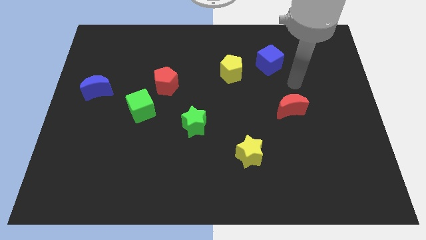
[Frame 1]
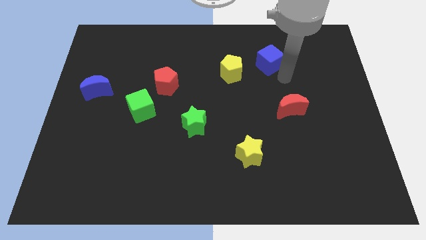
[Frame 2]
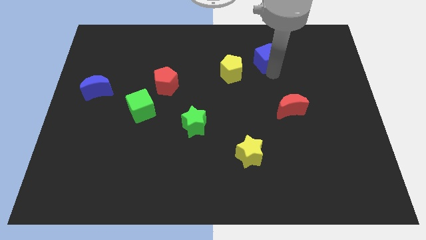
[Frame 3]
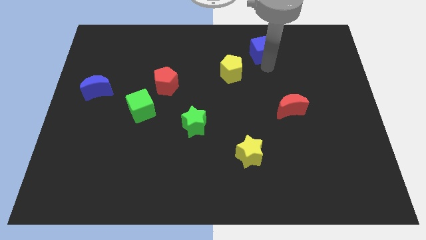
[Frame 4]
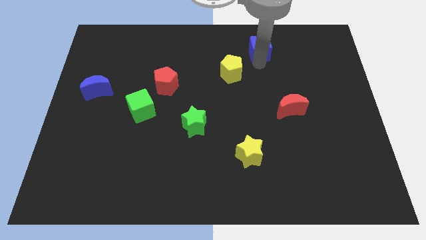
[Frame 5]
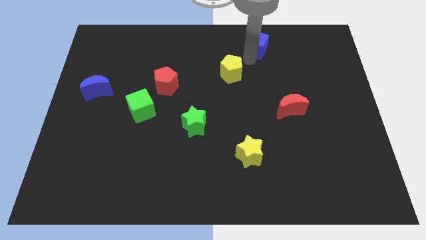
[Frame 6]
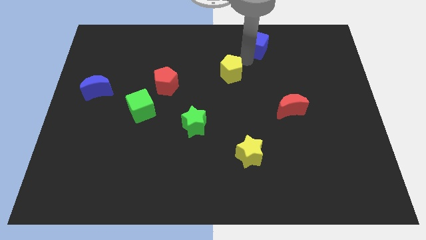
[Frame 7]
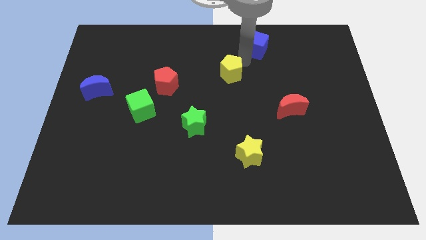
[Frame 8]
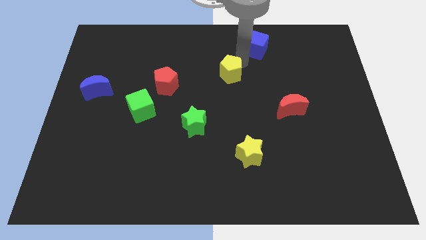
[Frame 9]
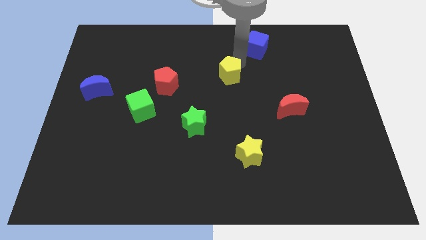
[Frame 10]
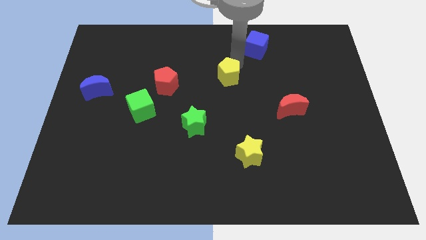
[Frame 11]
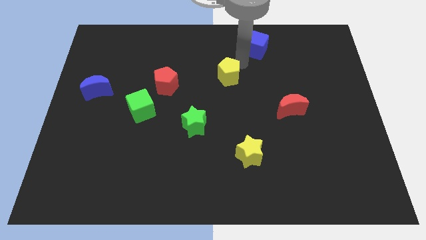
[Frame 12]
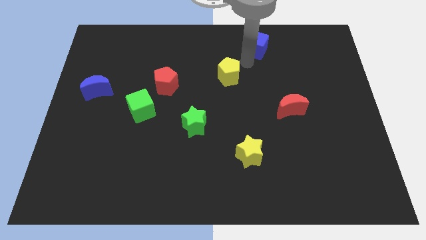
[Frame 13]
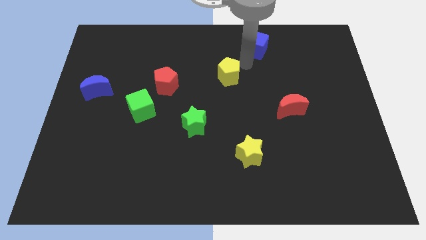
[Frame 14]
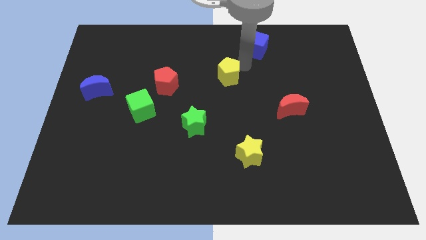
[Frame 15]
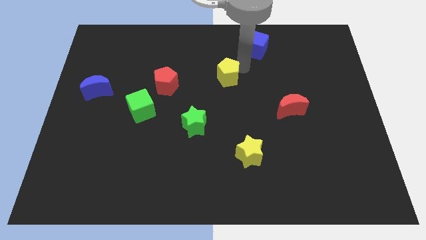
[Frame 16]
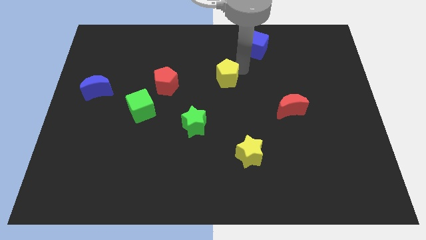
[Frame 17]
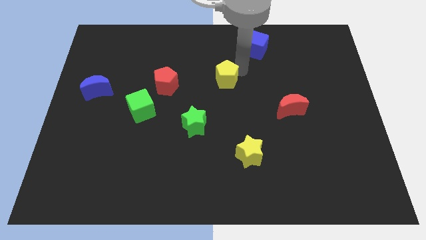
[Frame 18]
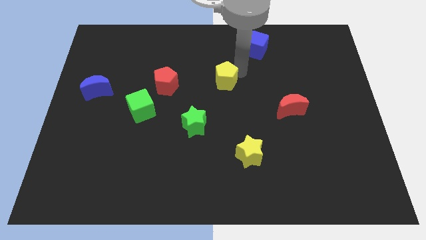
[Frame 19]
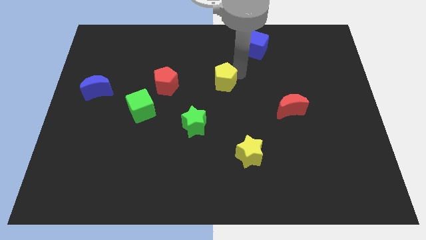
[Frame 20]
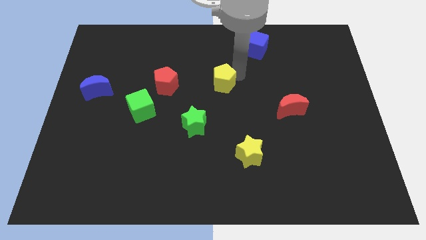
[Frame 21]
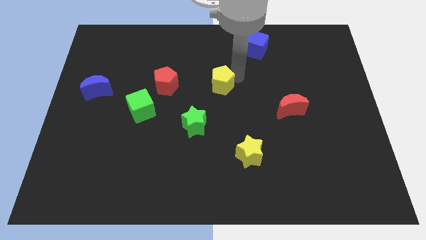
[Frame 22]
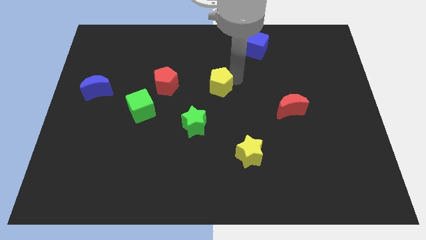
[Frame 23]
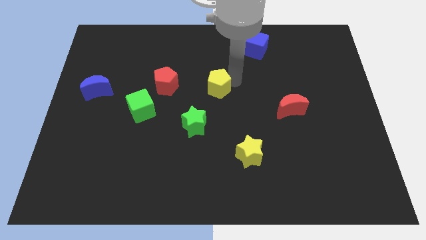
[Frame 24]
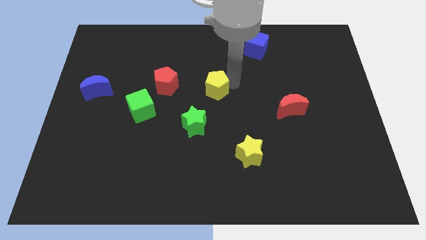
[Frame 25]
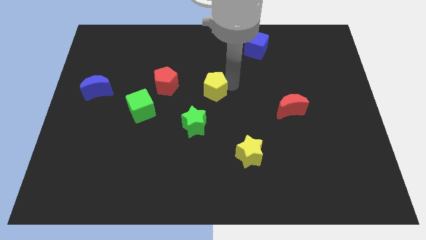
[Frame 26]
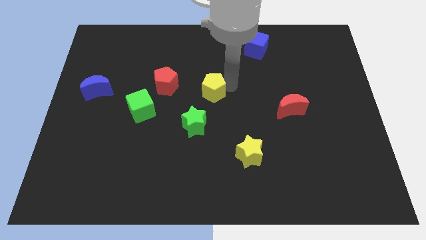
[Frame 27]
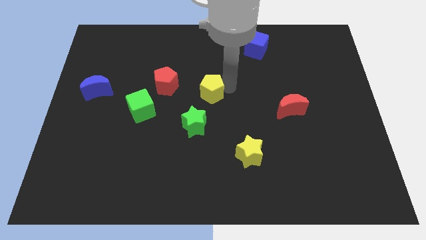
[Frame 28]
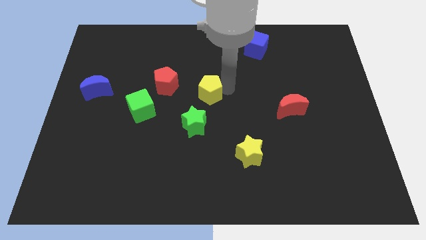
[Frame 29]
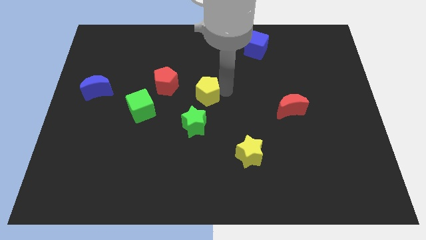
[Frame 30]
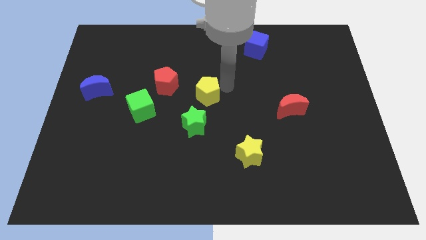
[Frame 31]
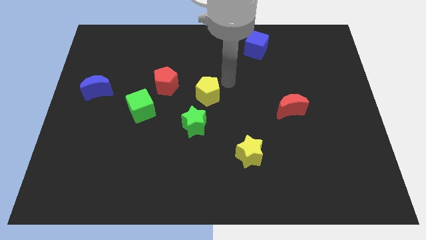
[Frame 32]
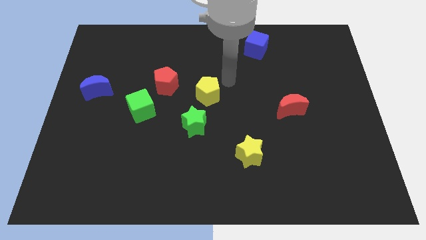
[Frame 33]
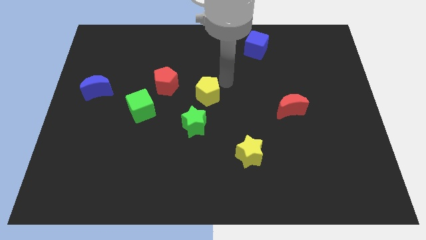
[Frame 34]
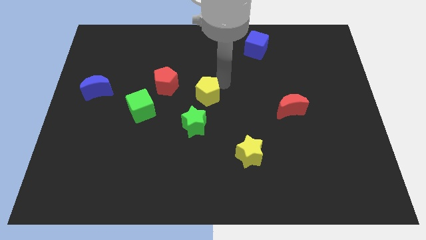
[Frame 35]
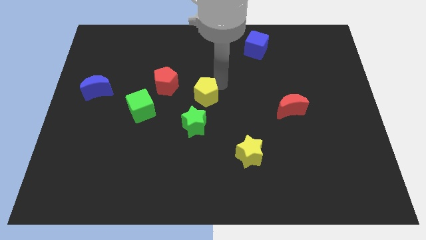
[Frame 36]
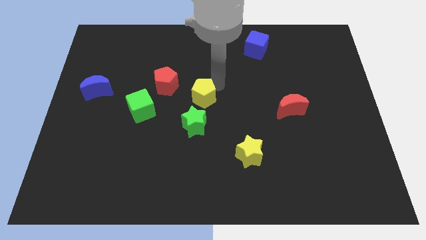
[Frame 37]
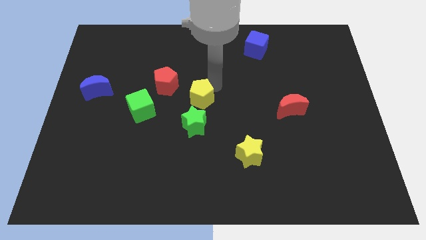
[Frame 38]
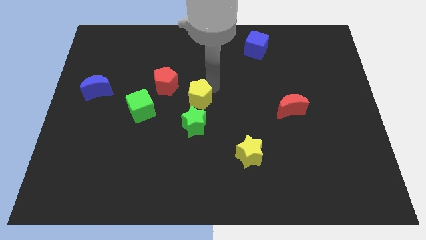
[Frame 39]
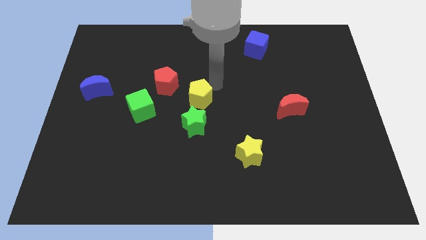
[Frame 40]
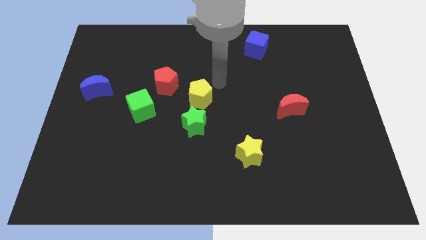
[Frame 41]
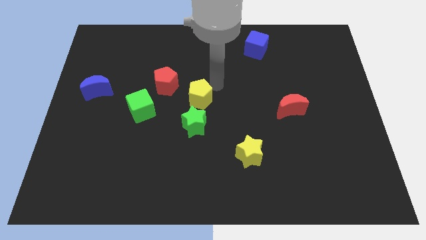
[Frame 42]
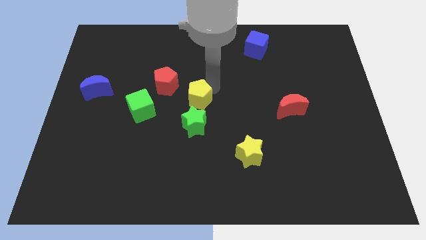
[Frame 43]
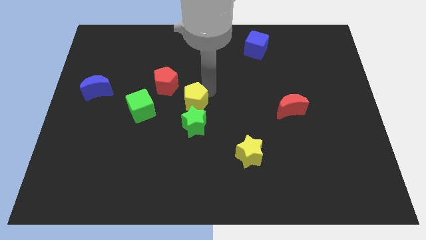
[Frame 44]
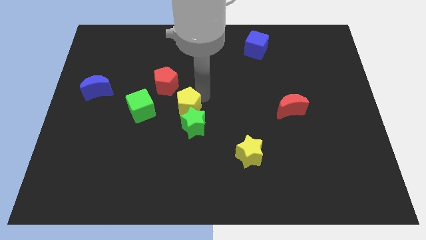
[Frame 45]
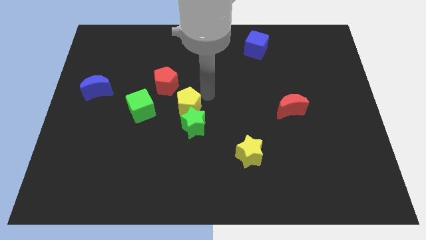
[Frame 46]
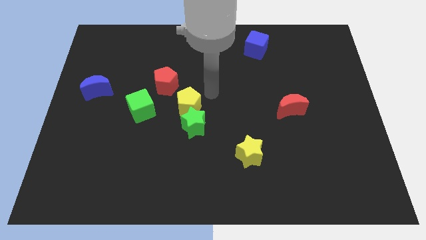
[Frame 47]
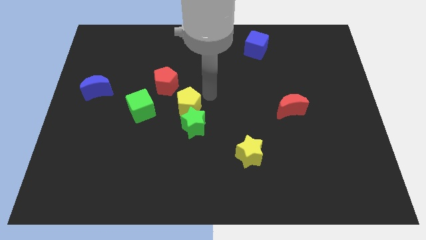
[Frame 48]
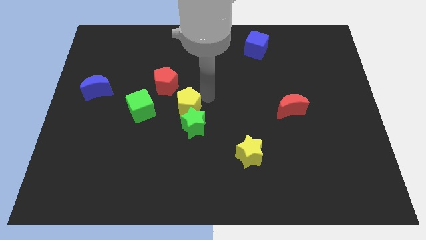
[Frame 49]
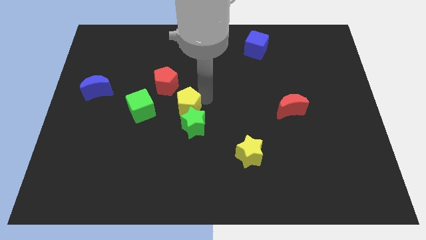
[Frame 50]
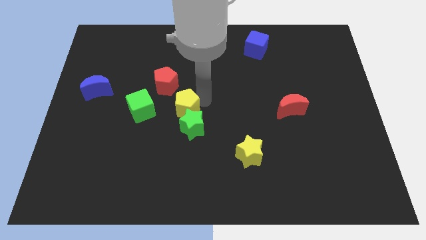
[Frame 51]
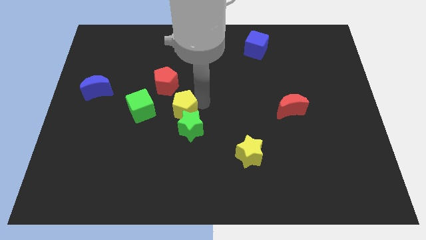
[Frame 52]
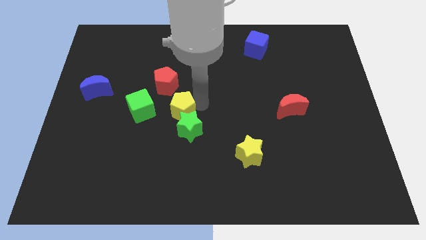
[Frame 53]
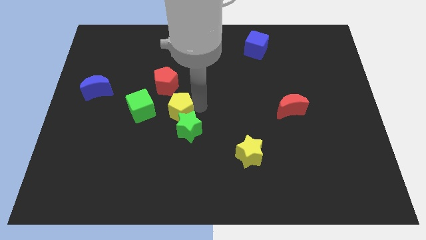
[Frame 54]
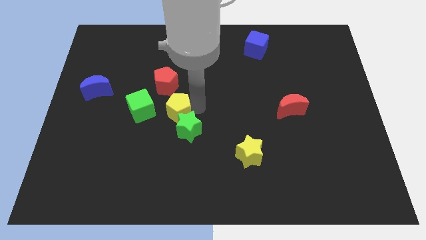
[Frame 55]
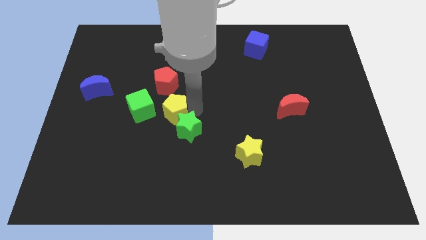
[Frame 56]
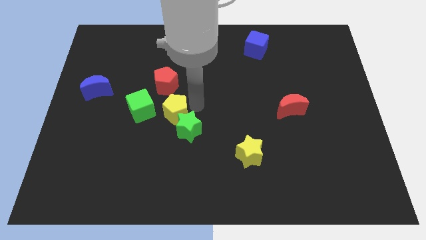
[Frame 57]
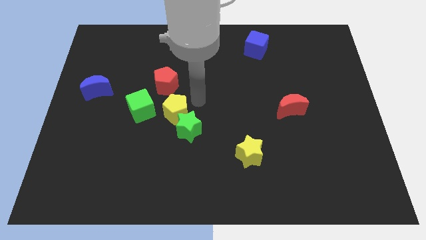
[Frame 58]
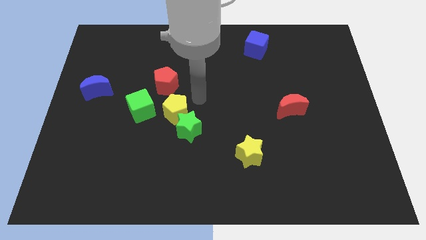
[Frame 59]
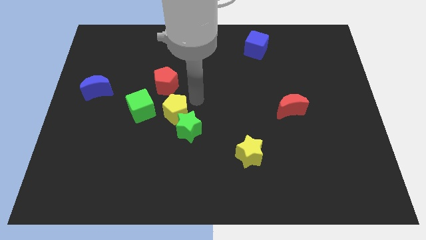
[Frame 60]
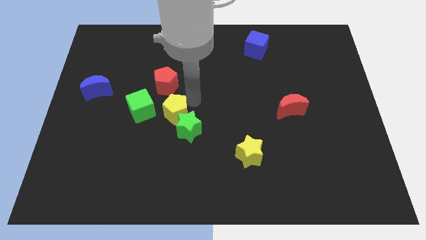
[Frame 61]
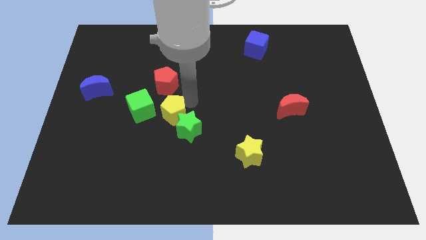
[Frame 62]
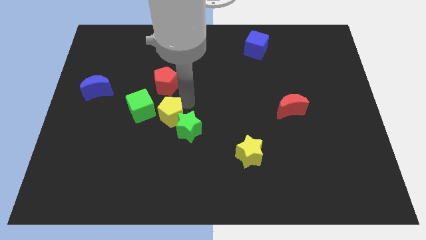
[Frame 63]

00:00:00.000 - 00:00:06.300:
move the yellow pentagon down and left diagonally

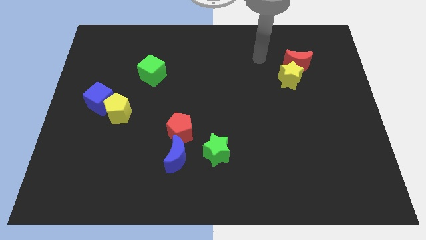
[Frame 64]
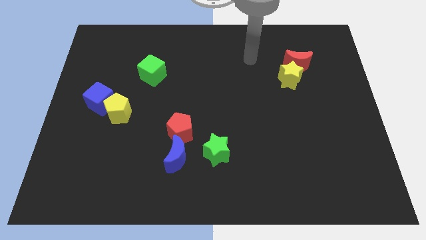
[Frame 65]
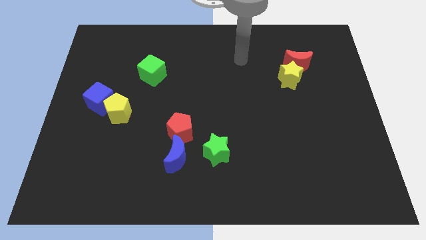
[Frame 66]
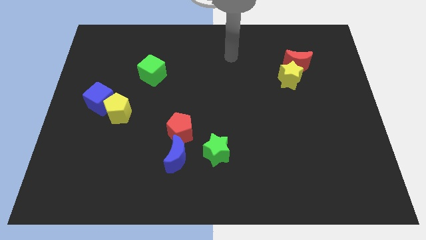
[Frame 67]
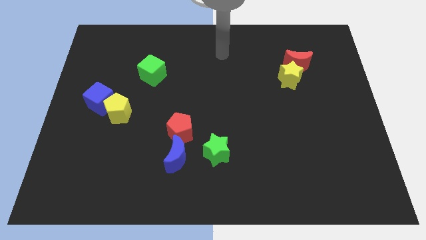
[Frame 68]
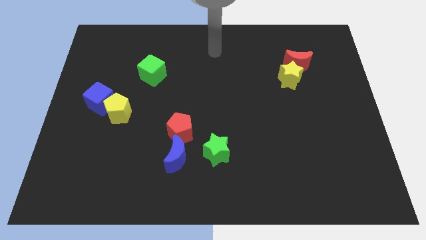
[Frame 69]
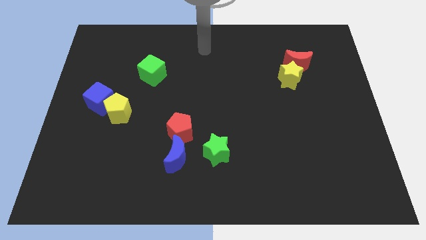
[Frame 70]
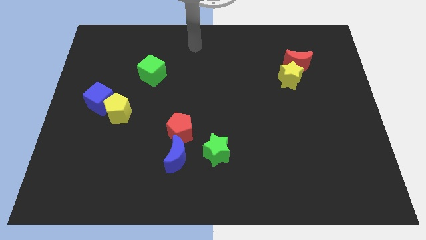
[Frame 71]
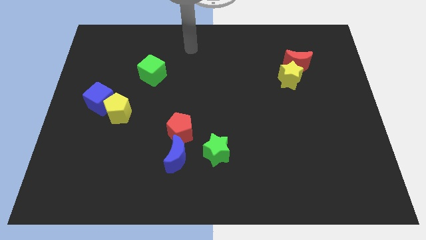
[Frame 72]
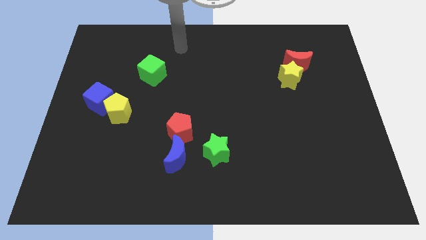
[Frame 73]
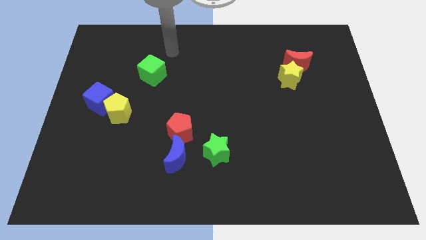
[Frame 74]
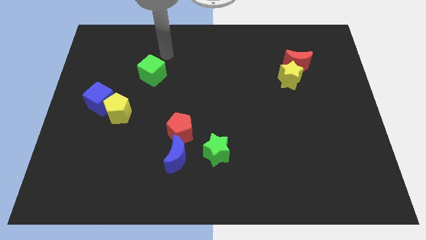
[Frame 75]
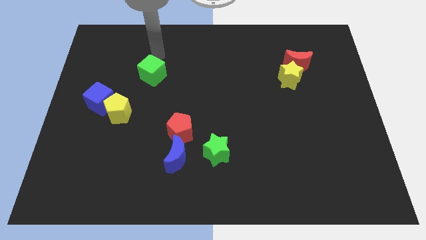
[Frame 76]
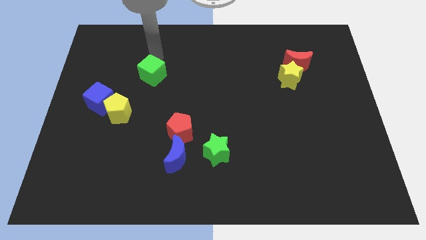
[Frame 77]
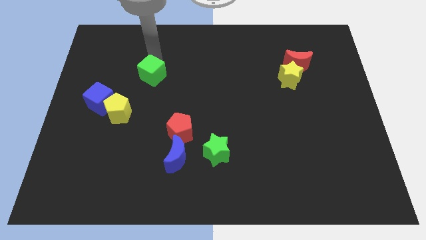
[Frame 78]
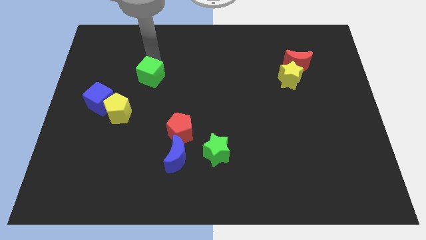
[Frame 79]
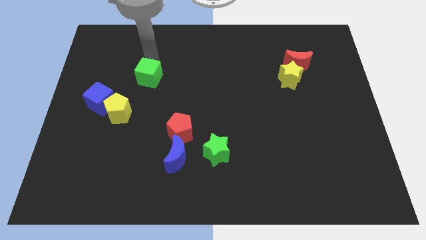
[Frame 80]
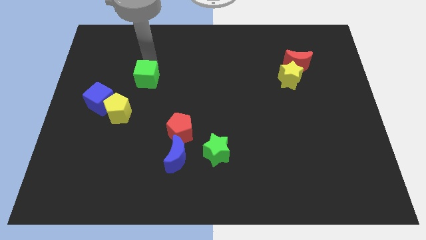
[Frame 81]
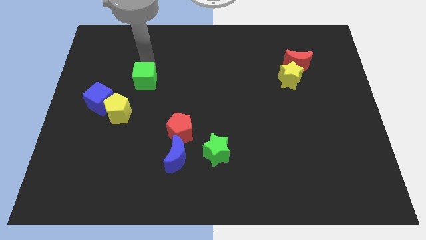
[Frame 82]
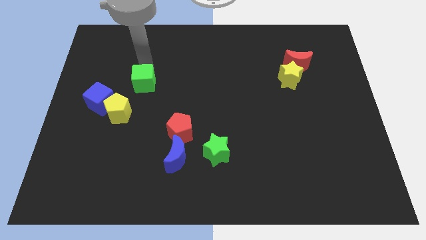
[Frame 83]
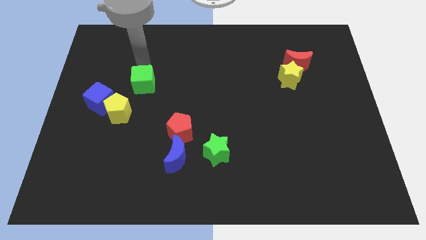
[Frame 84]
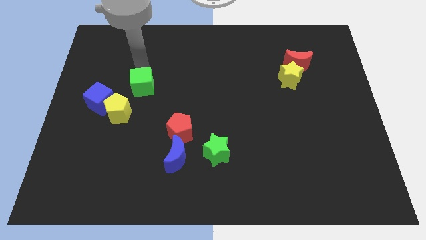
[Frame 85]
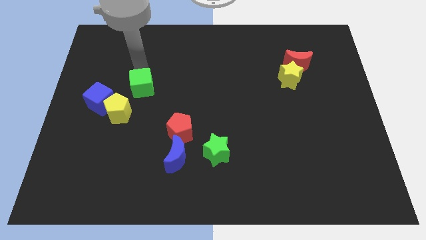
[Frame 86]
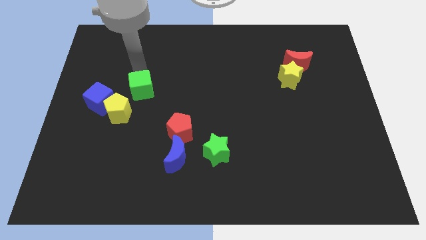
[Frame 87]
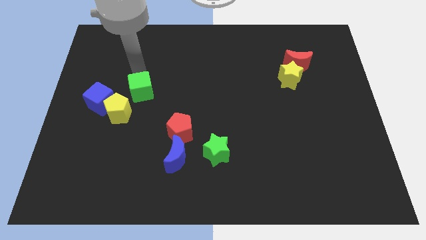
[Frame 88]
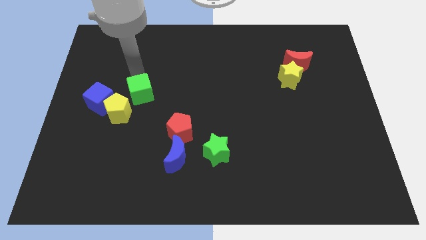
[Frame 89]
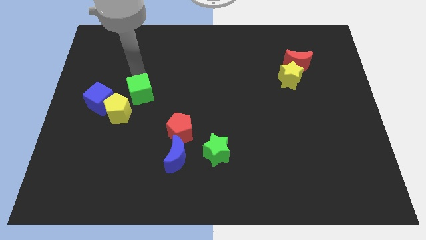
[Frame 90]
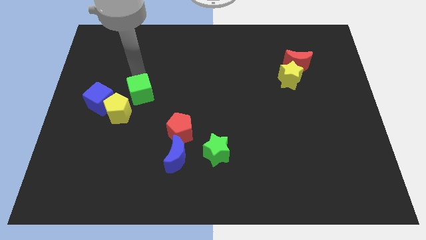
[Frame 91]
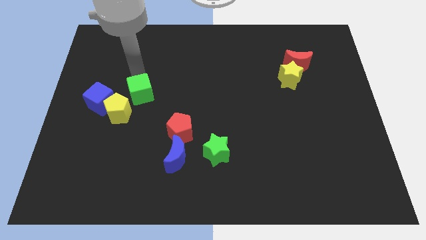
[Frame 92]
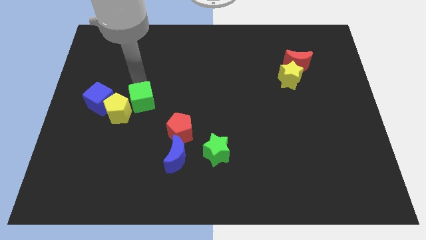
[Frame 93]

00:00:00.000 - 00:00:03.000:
slightly move the green cube down
